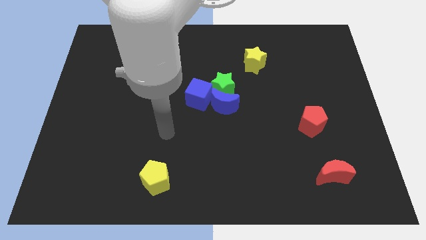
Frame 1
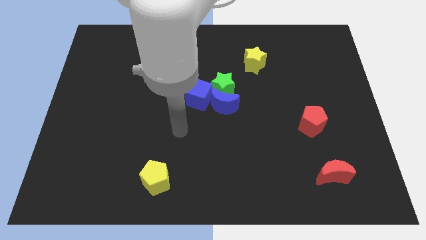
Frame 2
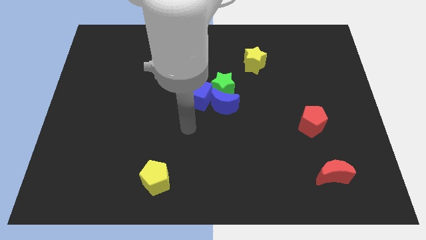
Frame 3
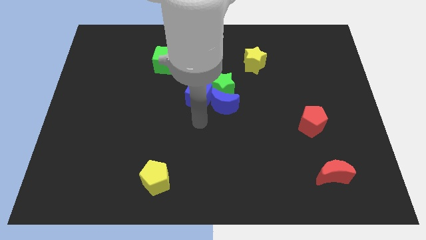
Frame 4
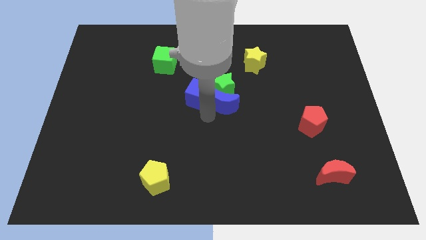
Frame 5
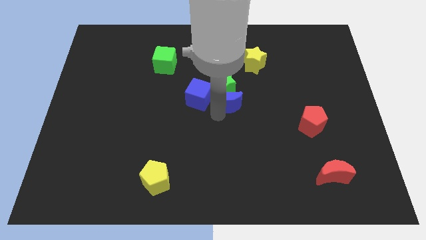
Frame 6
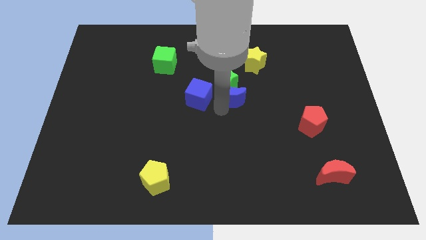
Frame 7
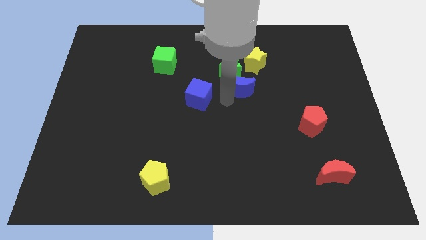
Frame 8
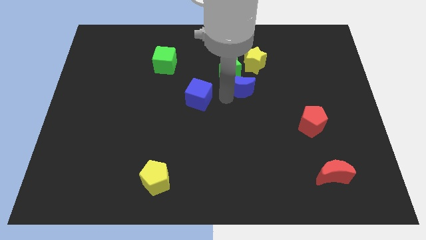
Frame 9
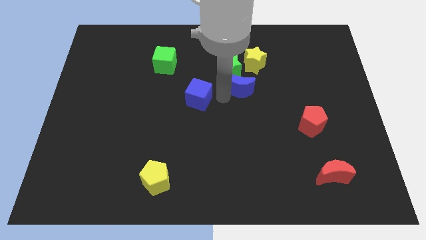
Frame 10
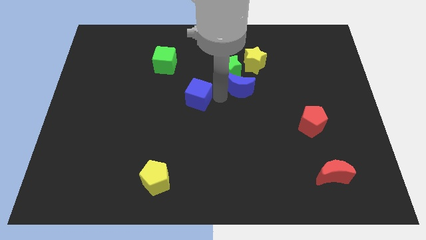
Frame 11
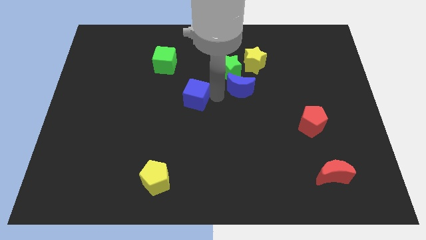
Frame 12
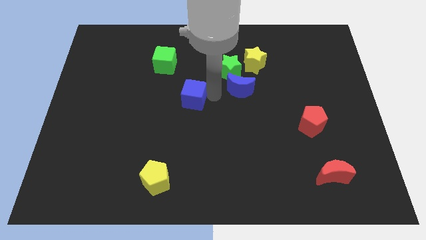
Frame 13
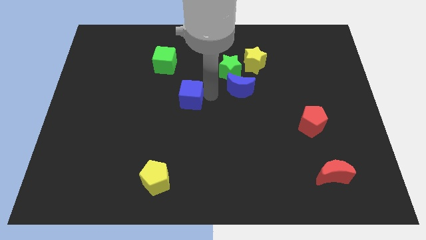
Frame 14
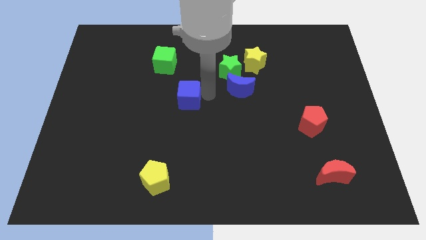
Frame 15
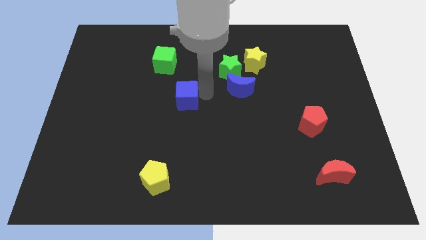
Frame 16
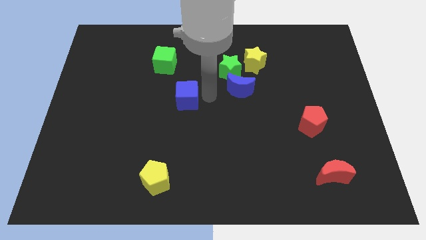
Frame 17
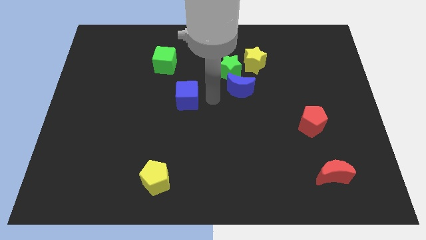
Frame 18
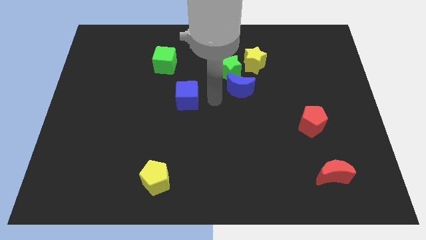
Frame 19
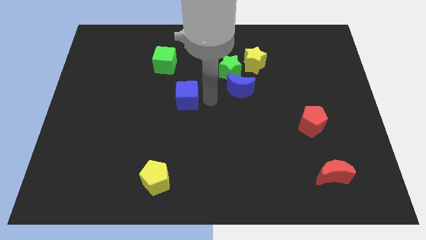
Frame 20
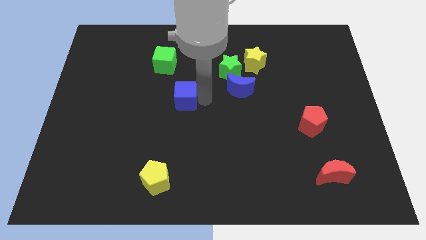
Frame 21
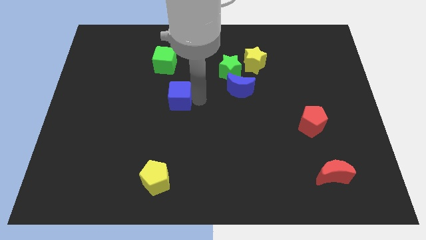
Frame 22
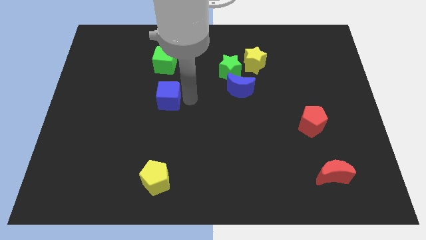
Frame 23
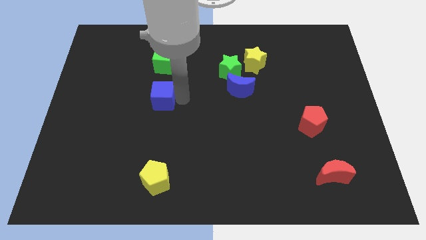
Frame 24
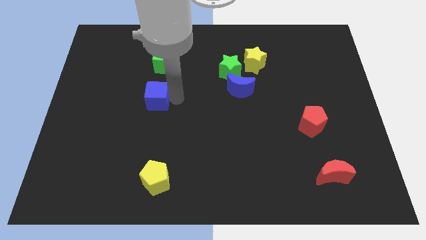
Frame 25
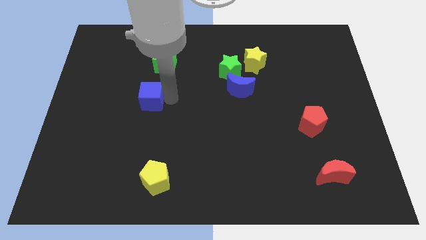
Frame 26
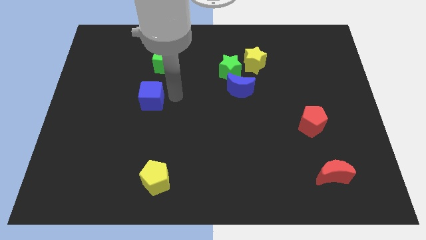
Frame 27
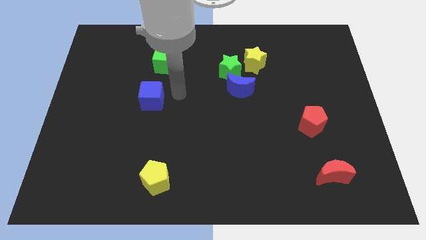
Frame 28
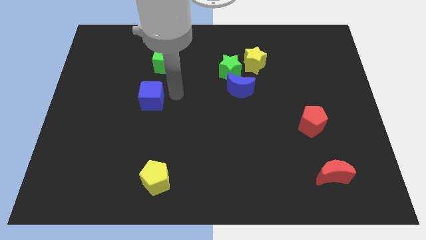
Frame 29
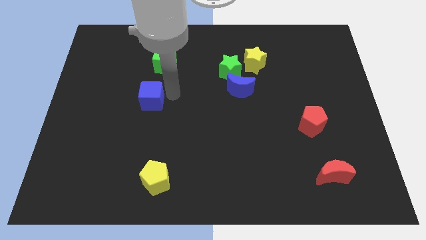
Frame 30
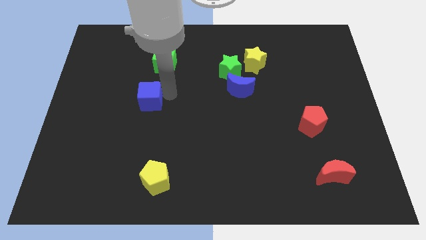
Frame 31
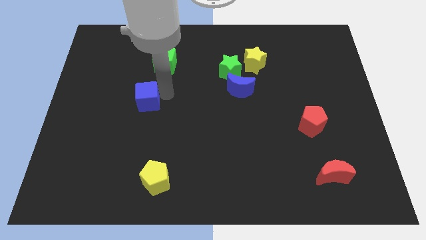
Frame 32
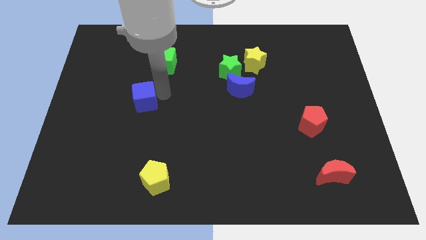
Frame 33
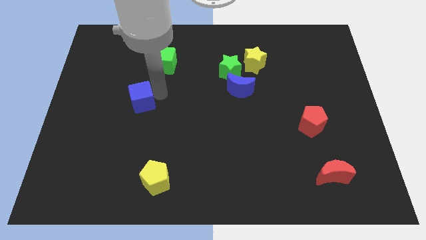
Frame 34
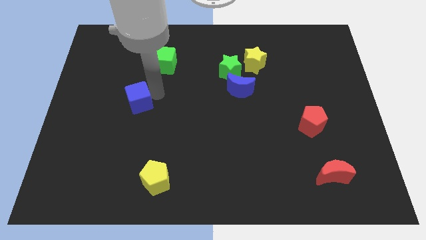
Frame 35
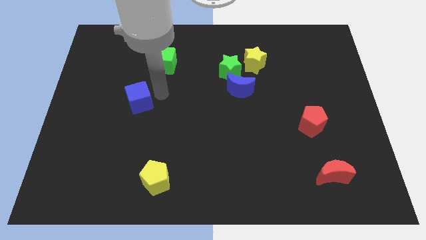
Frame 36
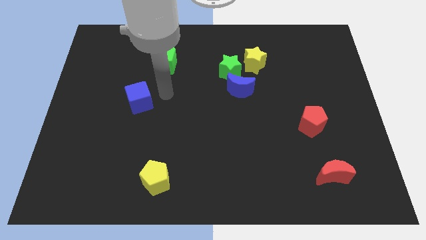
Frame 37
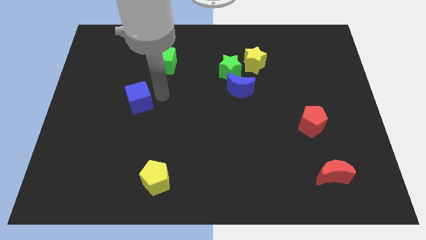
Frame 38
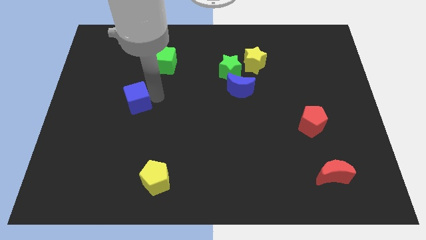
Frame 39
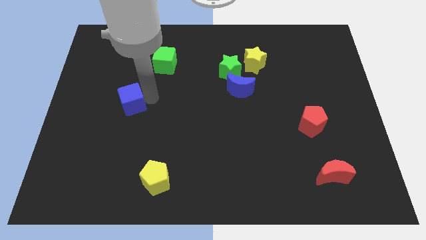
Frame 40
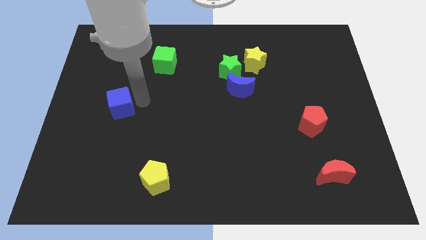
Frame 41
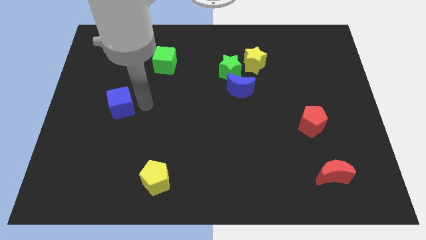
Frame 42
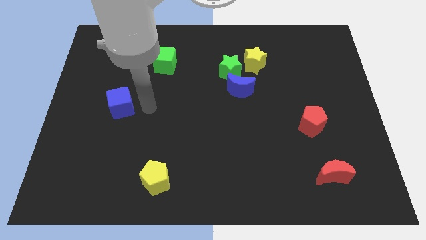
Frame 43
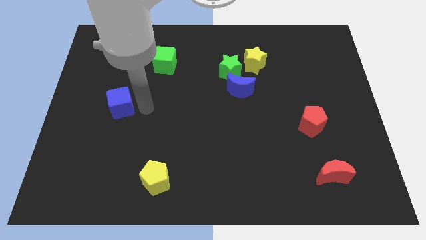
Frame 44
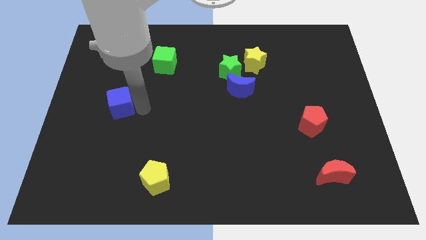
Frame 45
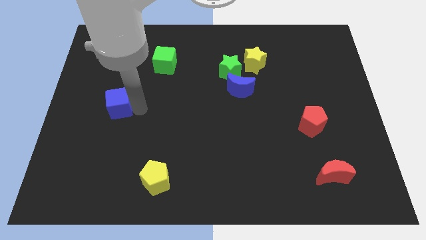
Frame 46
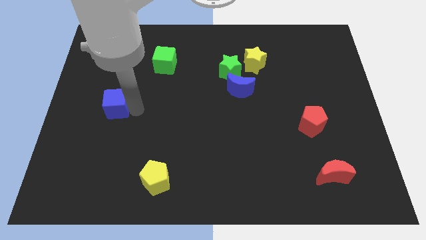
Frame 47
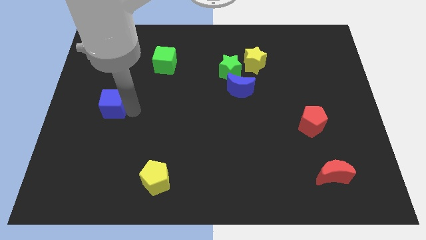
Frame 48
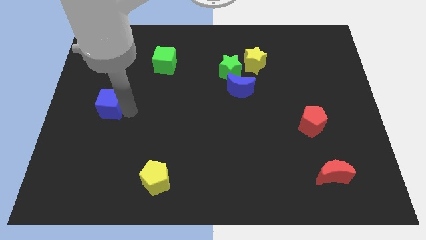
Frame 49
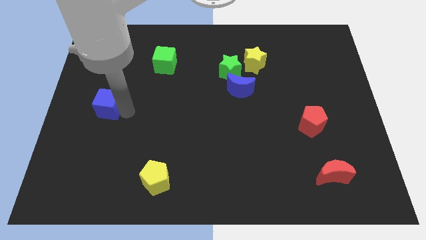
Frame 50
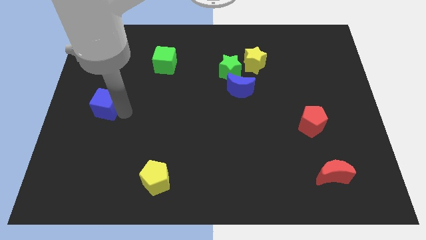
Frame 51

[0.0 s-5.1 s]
slide the blue cube to the center left
